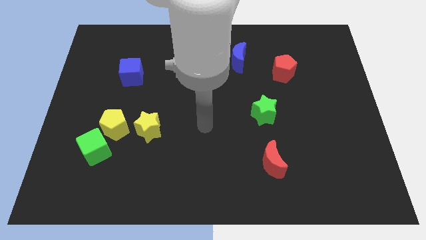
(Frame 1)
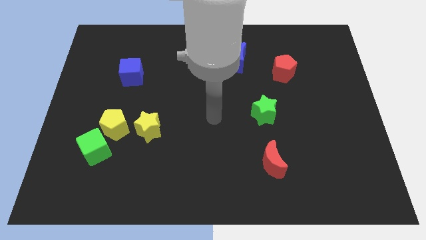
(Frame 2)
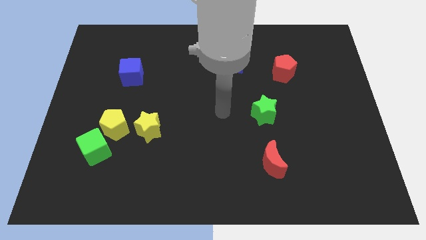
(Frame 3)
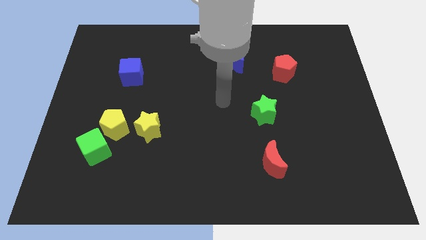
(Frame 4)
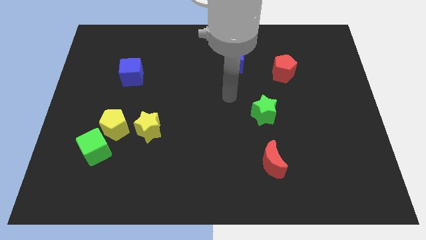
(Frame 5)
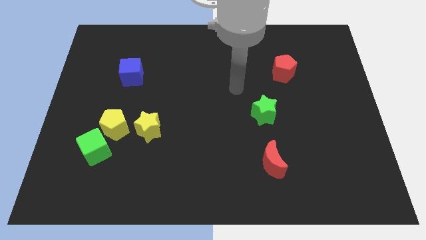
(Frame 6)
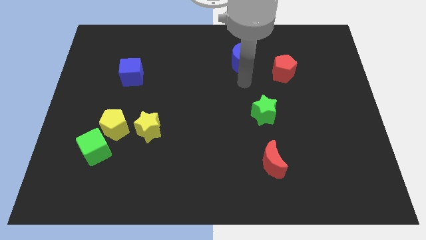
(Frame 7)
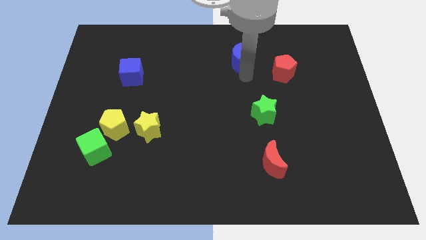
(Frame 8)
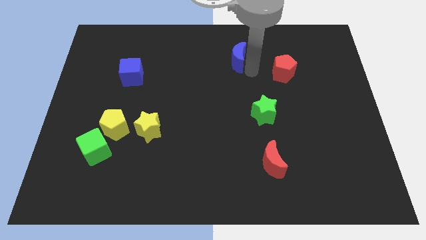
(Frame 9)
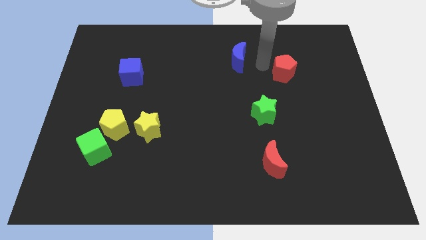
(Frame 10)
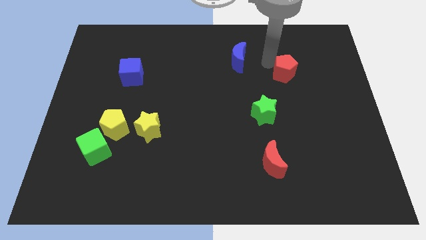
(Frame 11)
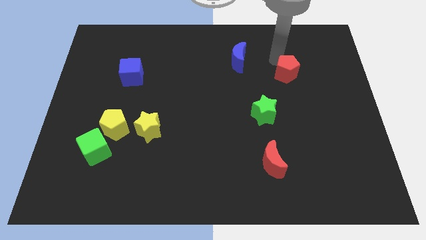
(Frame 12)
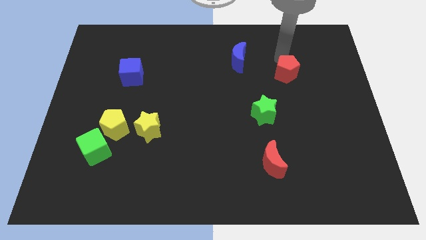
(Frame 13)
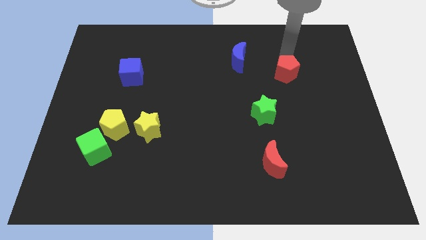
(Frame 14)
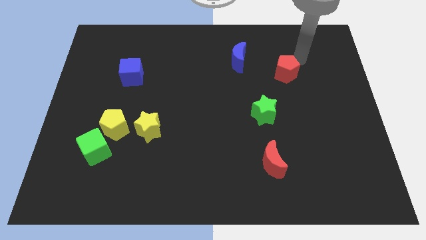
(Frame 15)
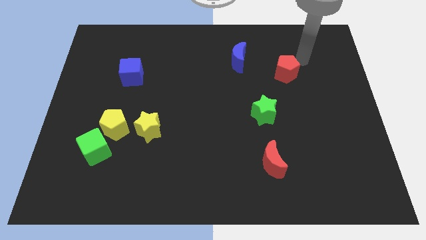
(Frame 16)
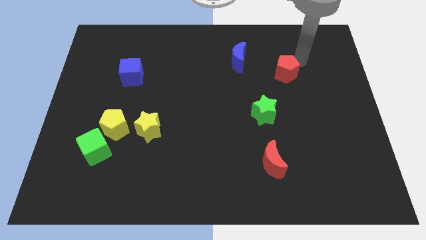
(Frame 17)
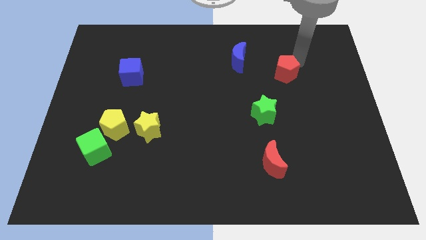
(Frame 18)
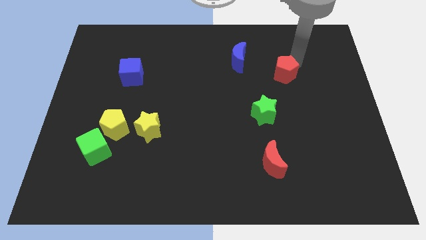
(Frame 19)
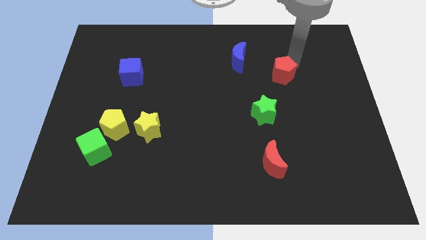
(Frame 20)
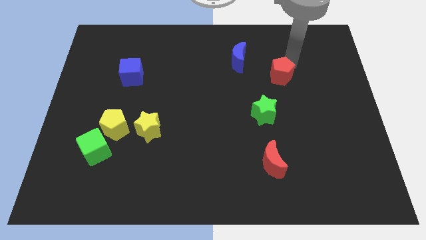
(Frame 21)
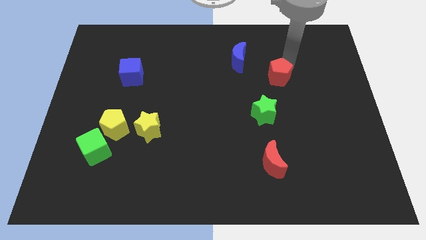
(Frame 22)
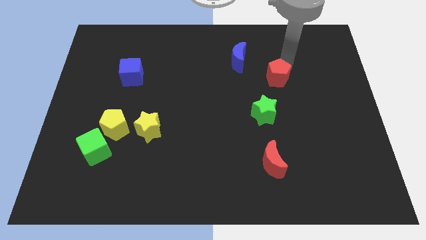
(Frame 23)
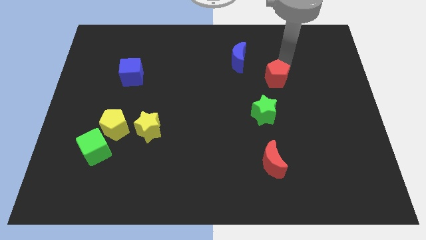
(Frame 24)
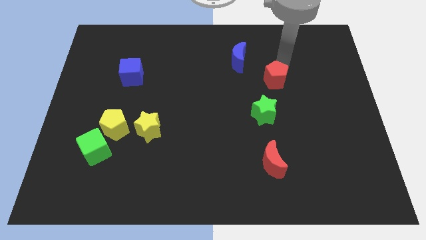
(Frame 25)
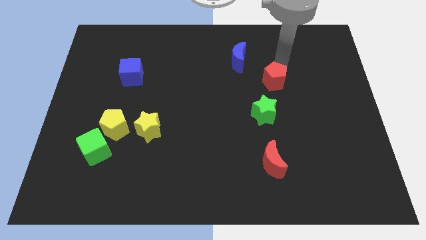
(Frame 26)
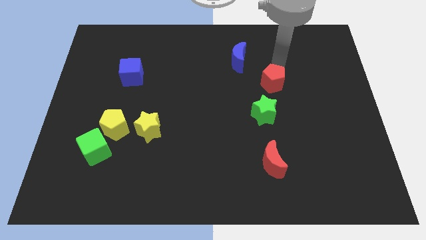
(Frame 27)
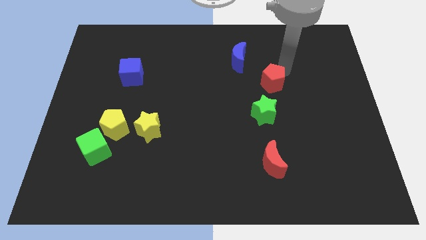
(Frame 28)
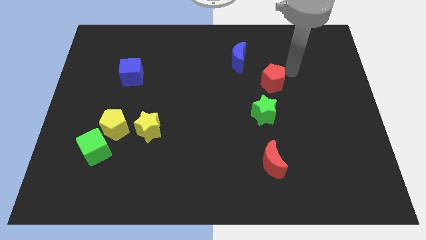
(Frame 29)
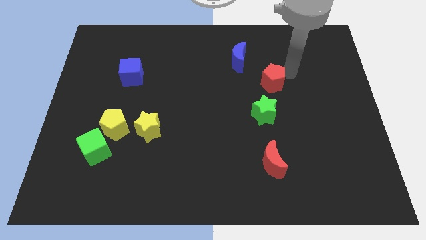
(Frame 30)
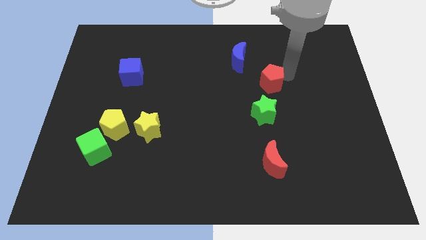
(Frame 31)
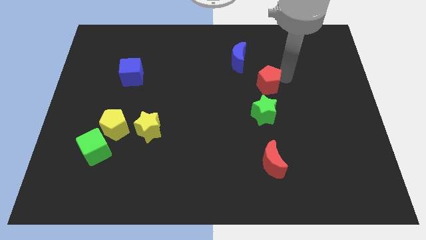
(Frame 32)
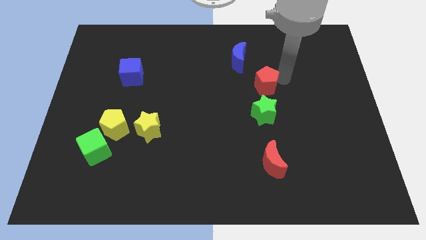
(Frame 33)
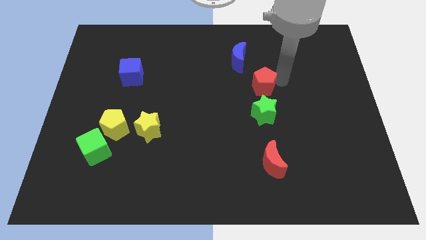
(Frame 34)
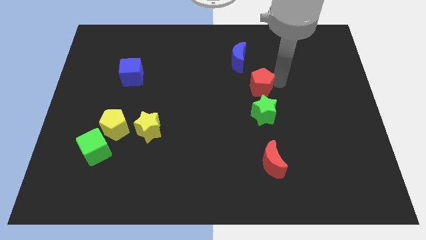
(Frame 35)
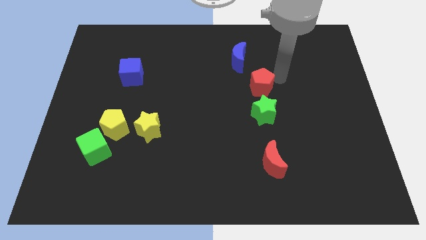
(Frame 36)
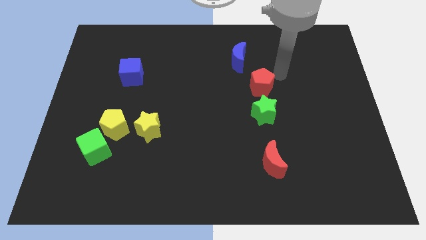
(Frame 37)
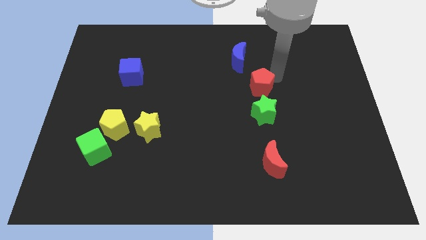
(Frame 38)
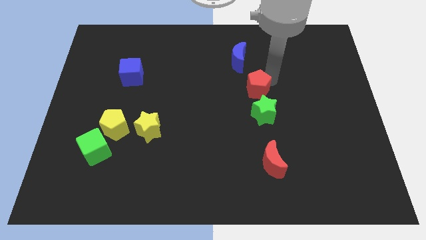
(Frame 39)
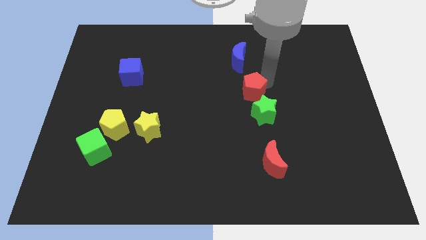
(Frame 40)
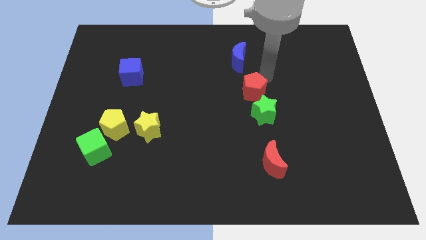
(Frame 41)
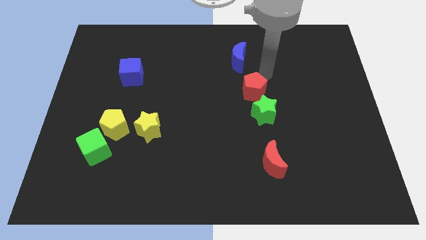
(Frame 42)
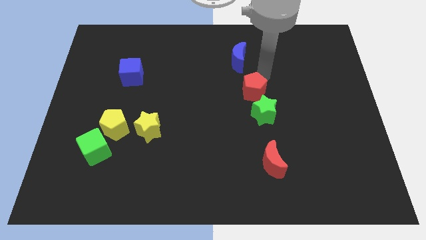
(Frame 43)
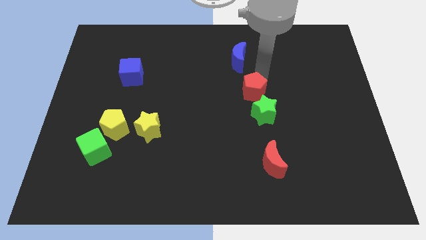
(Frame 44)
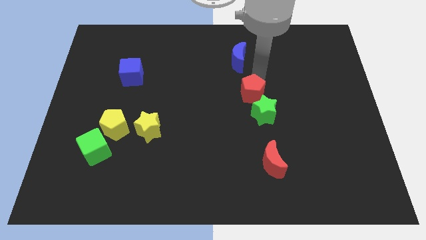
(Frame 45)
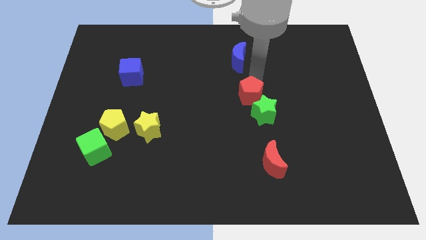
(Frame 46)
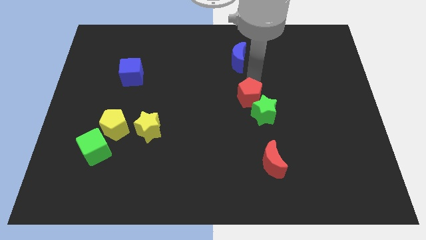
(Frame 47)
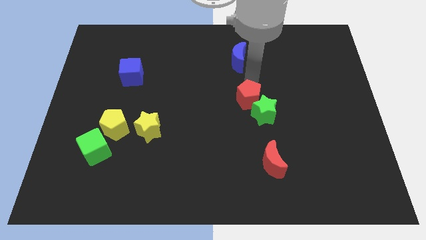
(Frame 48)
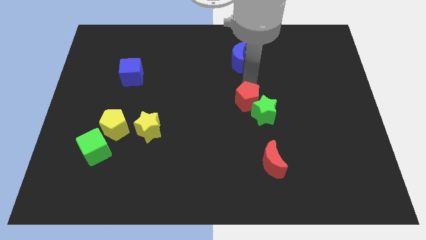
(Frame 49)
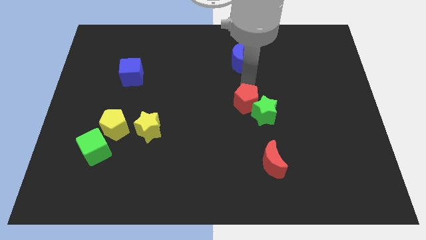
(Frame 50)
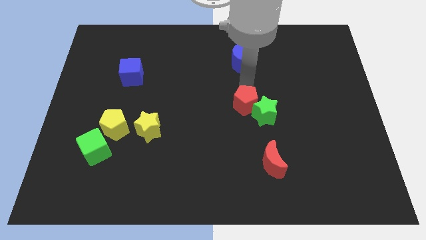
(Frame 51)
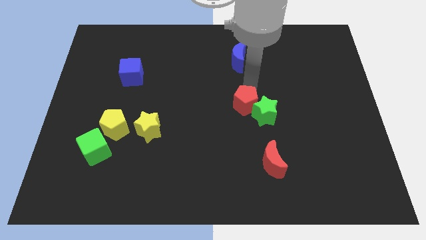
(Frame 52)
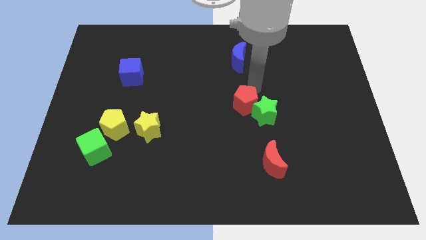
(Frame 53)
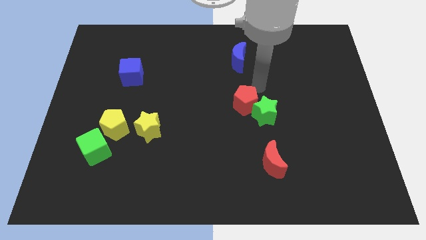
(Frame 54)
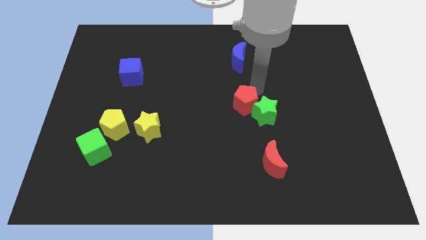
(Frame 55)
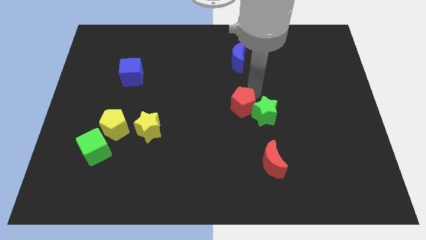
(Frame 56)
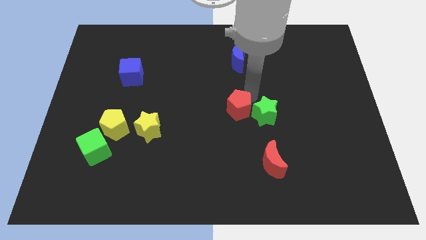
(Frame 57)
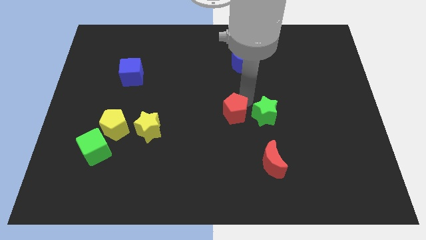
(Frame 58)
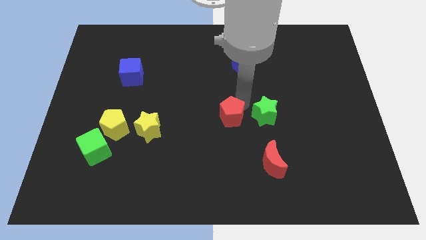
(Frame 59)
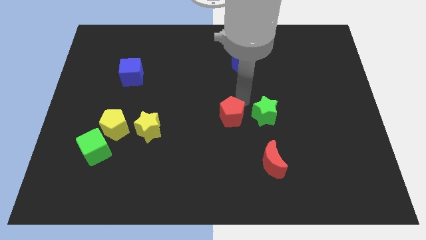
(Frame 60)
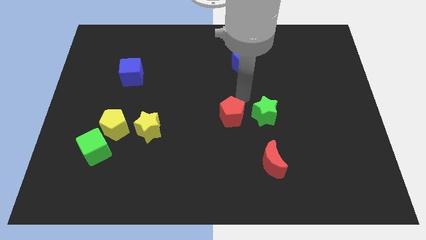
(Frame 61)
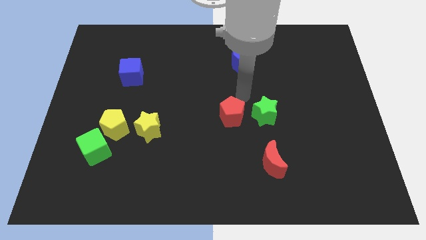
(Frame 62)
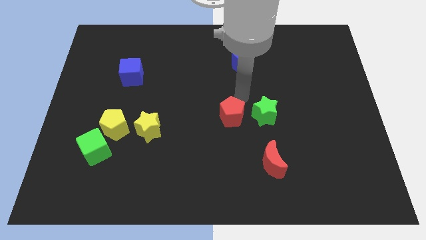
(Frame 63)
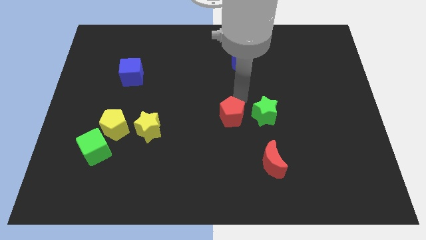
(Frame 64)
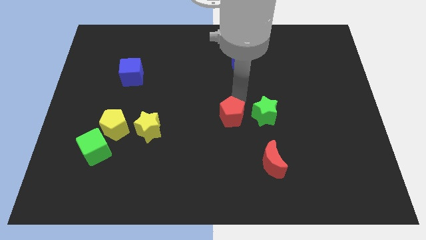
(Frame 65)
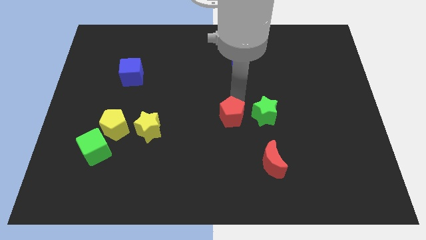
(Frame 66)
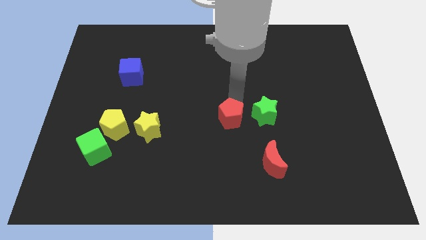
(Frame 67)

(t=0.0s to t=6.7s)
push the red pentagon diagonally down and to the left

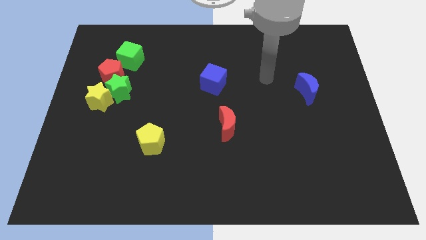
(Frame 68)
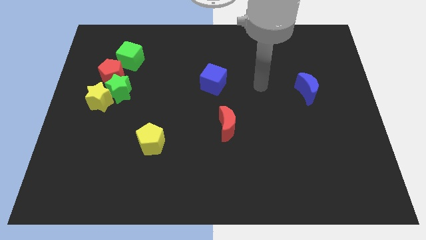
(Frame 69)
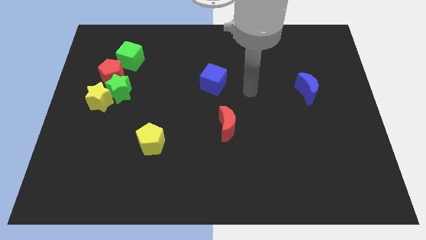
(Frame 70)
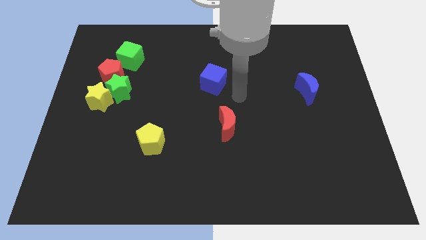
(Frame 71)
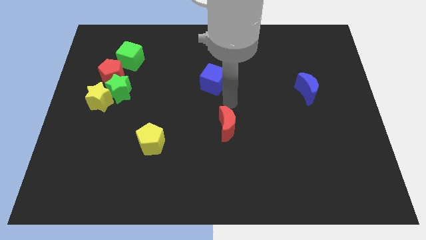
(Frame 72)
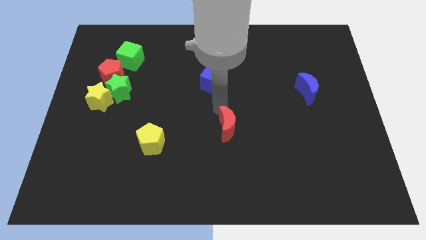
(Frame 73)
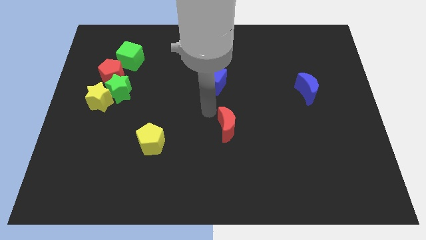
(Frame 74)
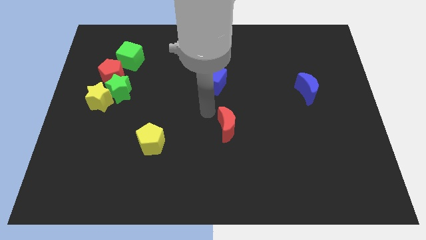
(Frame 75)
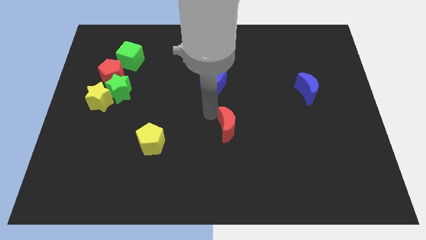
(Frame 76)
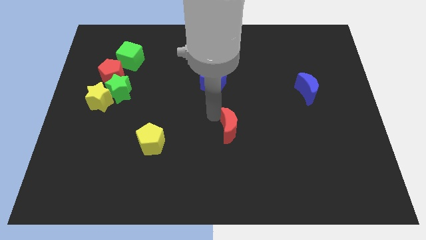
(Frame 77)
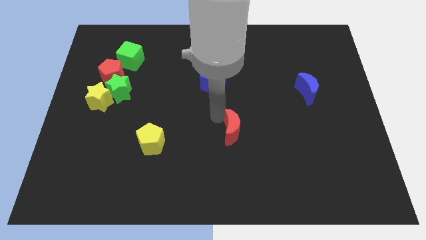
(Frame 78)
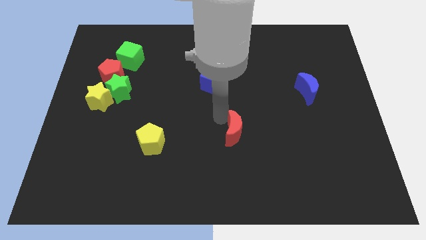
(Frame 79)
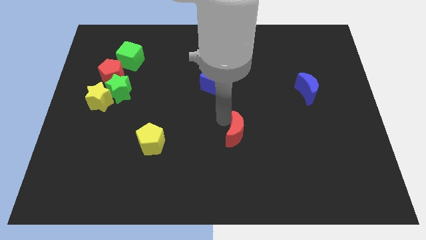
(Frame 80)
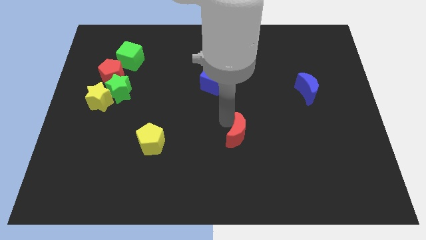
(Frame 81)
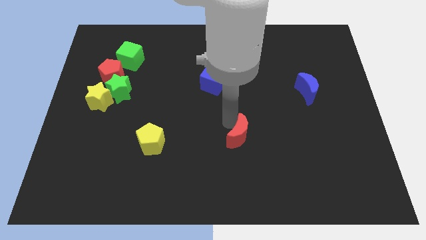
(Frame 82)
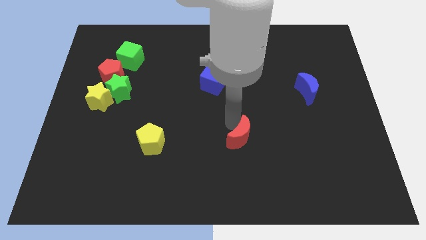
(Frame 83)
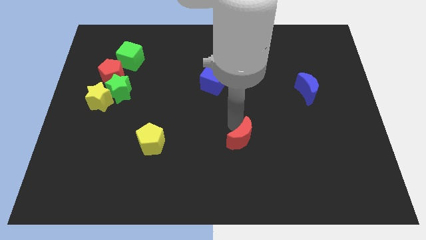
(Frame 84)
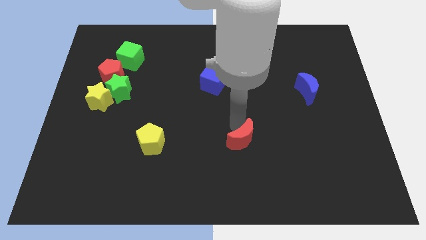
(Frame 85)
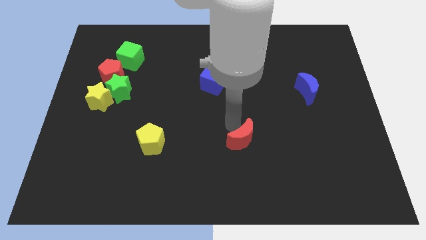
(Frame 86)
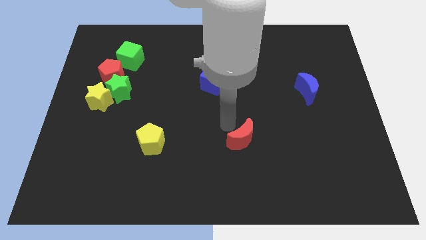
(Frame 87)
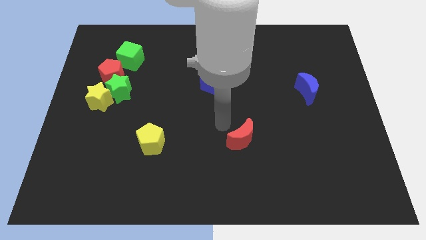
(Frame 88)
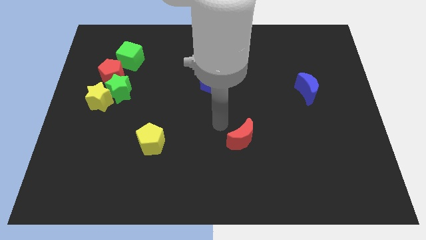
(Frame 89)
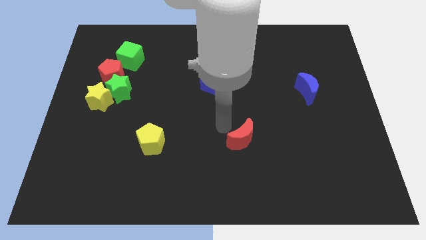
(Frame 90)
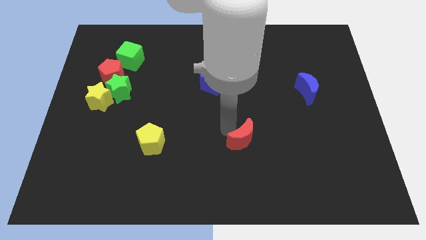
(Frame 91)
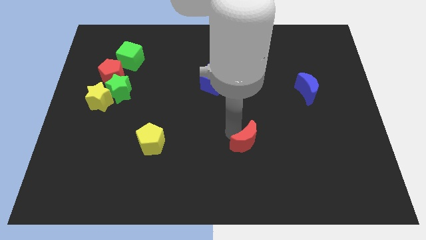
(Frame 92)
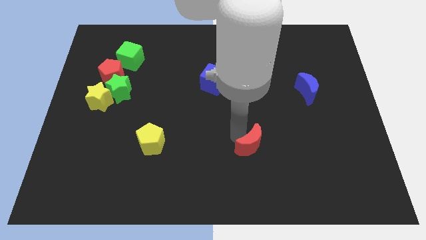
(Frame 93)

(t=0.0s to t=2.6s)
push the red moon downwards and to the right diagonally a bit
